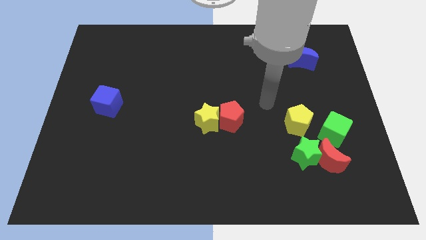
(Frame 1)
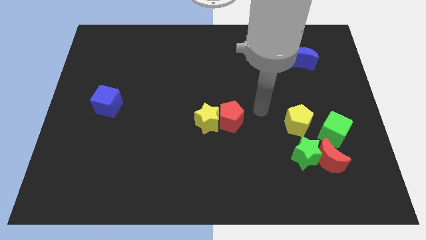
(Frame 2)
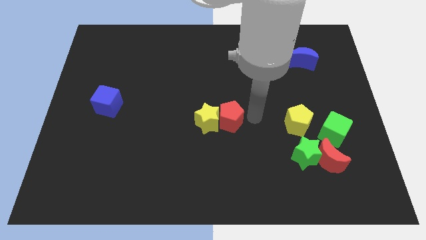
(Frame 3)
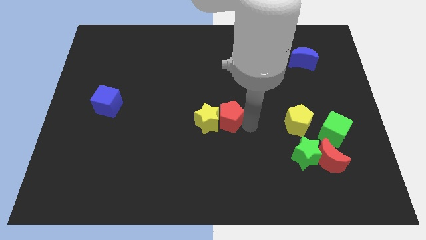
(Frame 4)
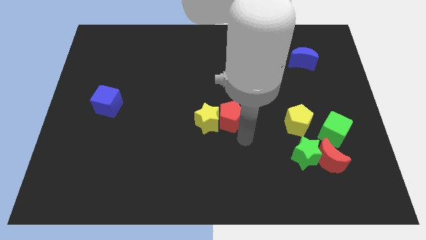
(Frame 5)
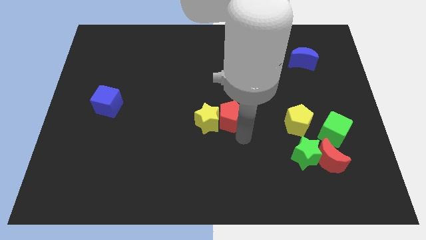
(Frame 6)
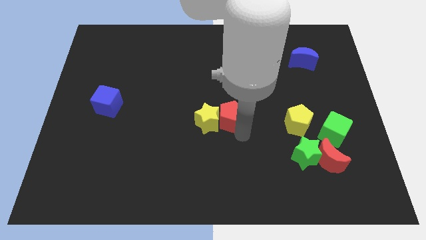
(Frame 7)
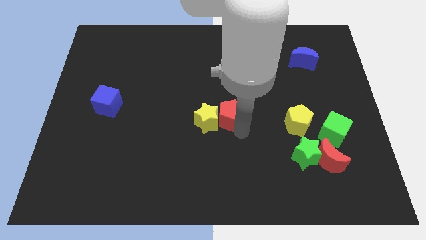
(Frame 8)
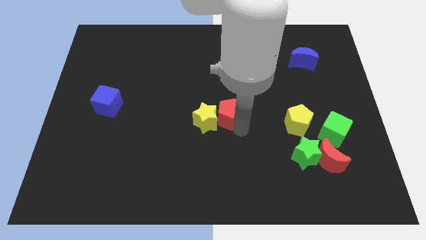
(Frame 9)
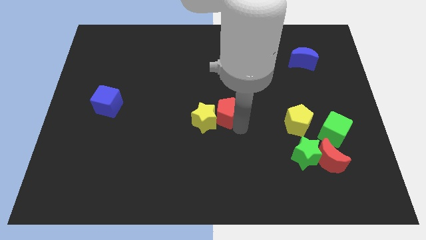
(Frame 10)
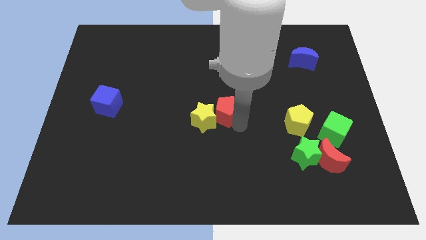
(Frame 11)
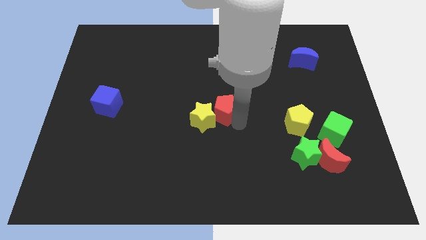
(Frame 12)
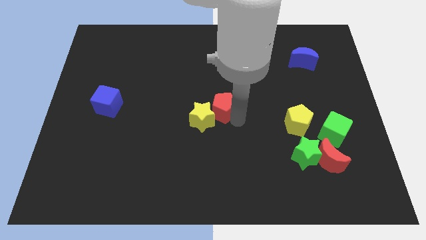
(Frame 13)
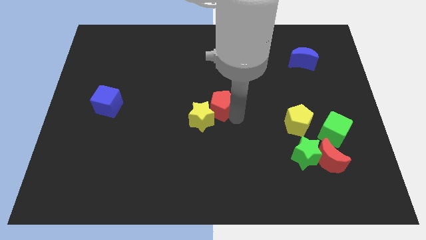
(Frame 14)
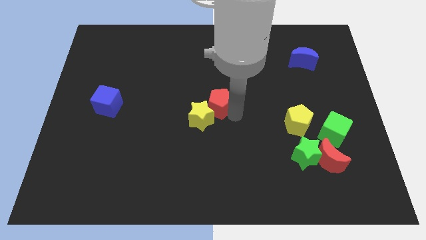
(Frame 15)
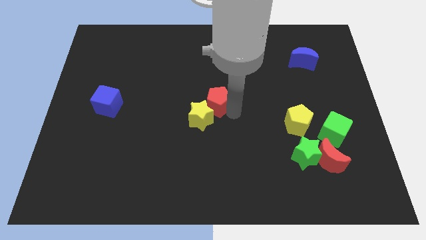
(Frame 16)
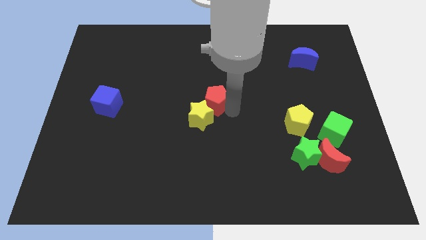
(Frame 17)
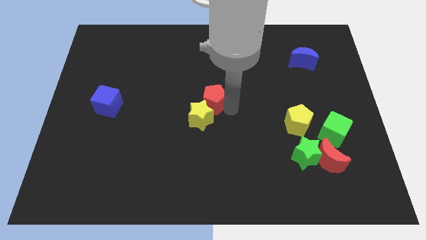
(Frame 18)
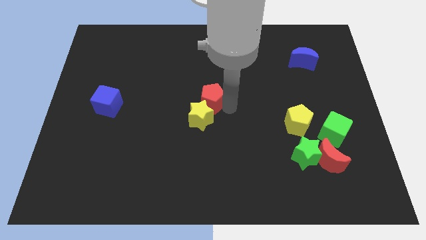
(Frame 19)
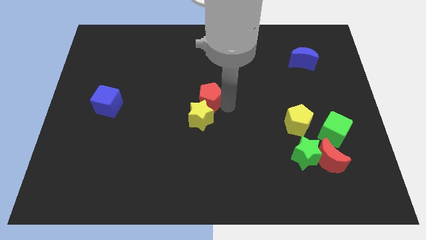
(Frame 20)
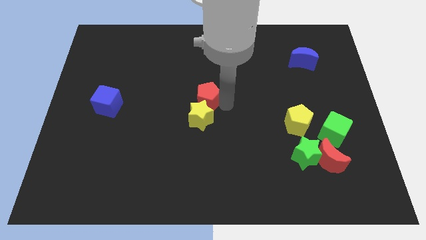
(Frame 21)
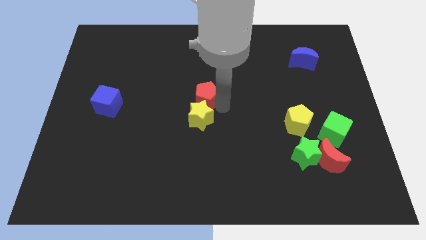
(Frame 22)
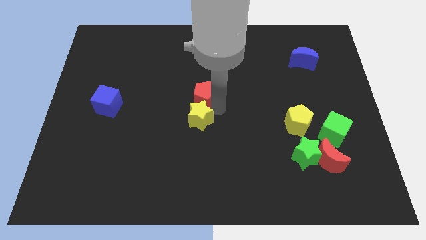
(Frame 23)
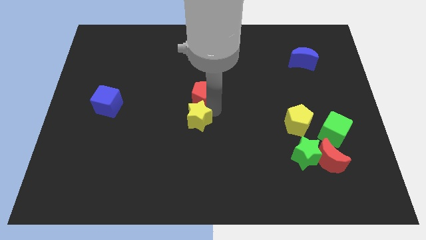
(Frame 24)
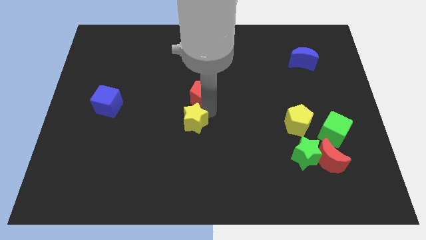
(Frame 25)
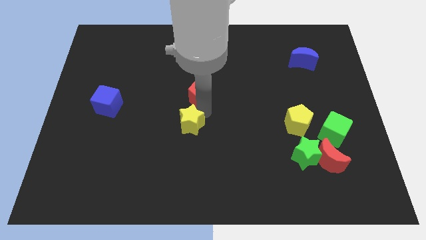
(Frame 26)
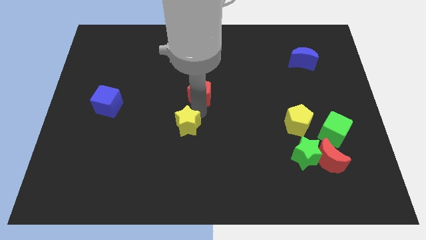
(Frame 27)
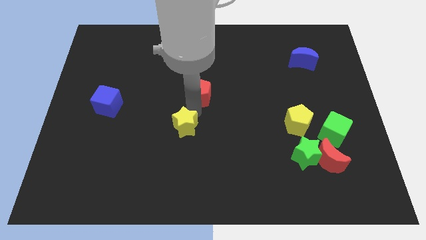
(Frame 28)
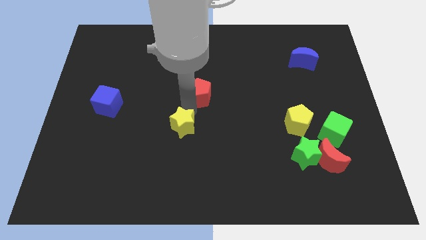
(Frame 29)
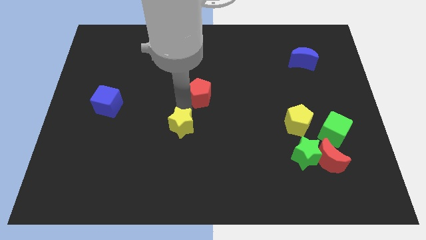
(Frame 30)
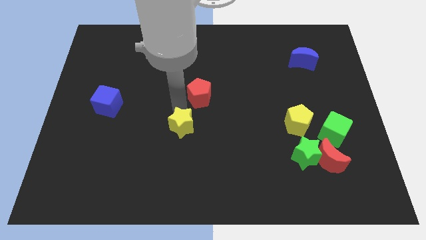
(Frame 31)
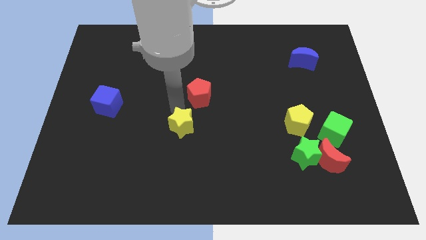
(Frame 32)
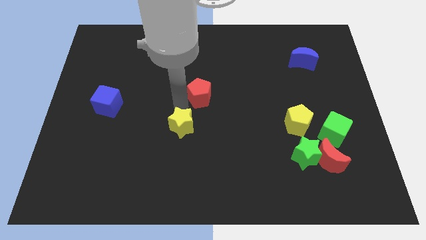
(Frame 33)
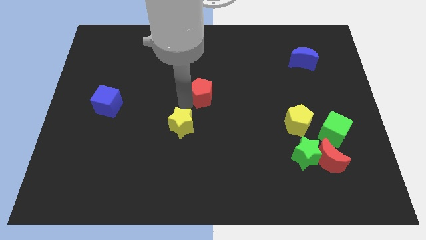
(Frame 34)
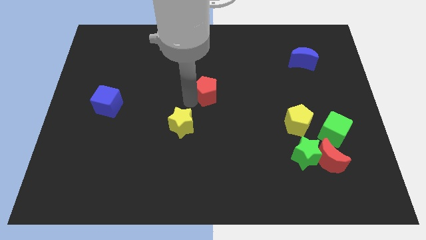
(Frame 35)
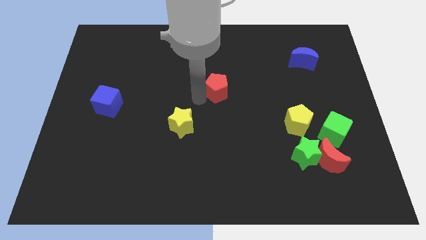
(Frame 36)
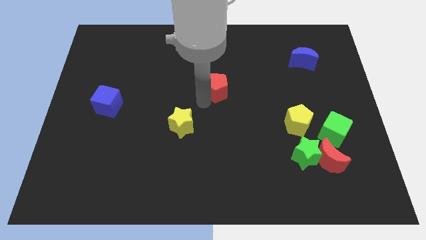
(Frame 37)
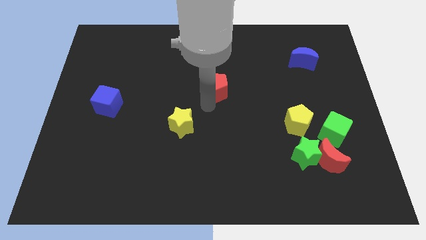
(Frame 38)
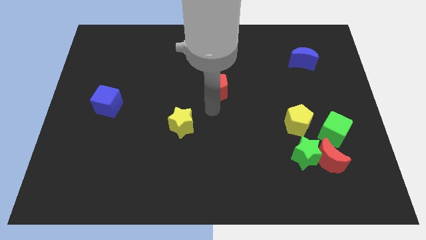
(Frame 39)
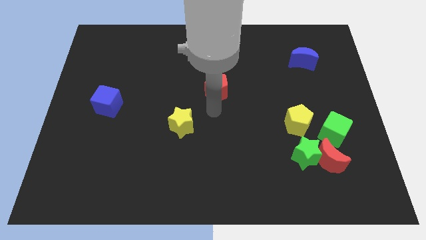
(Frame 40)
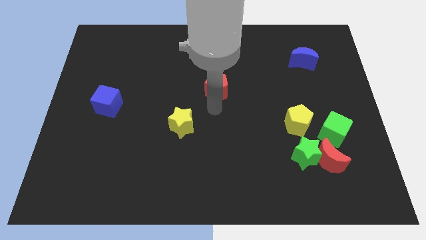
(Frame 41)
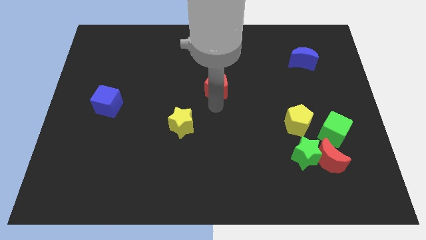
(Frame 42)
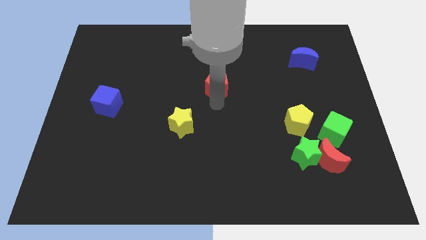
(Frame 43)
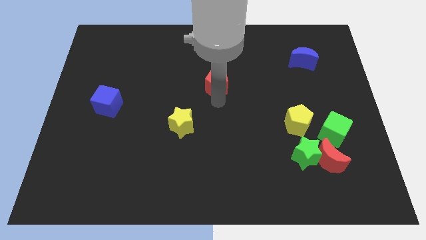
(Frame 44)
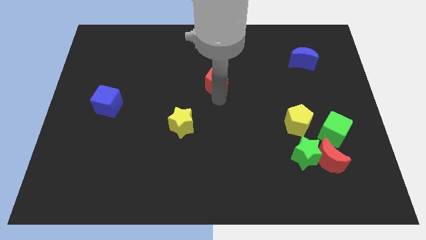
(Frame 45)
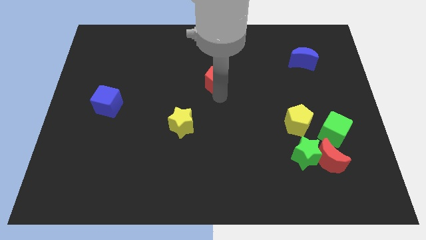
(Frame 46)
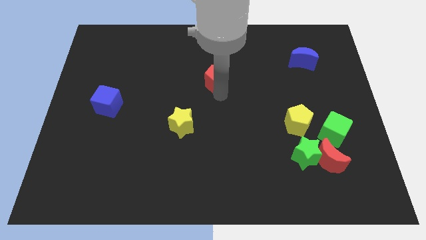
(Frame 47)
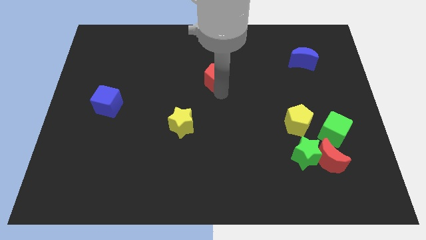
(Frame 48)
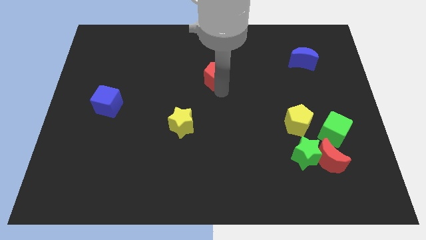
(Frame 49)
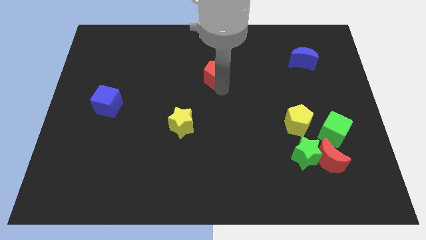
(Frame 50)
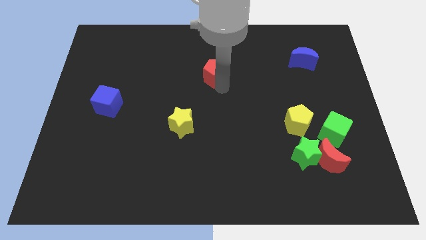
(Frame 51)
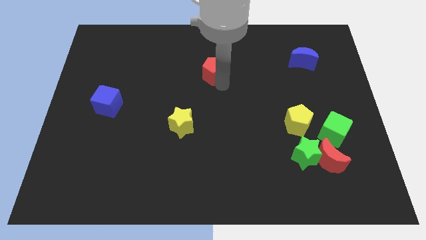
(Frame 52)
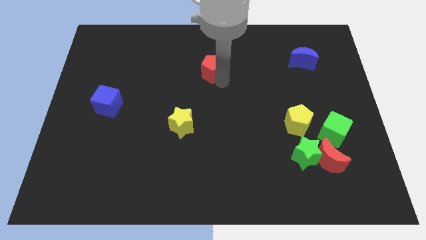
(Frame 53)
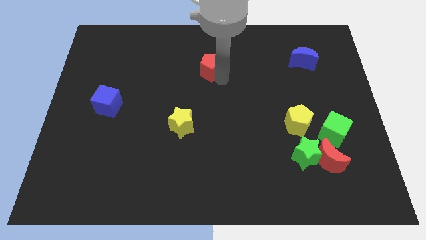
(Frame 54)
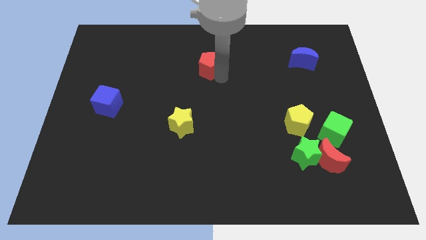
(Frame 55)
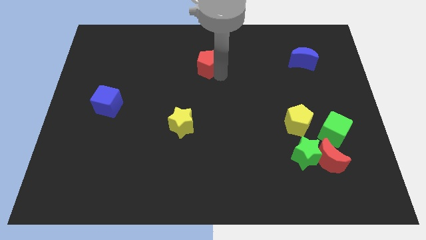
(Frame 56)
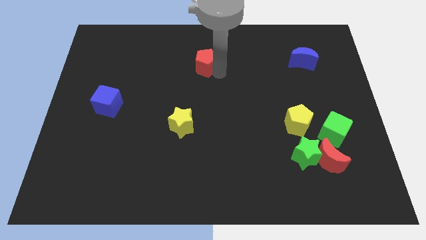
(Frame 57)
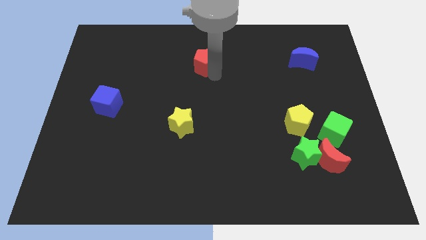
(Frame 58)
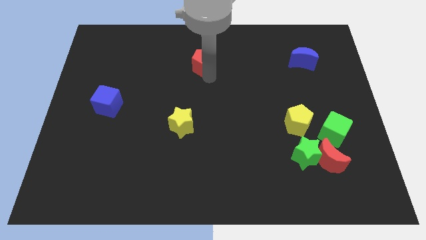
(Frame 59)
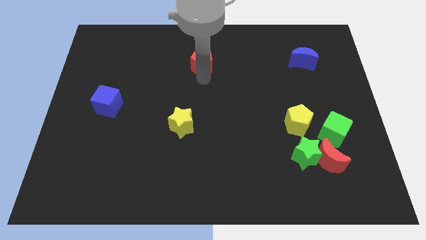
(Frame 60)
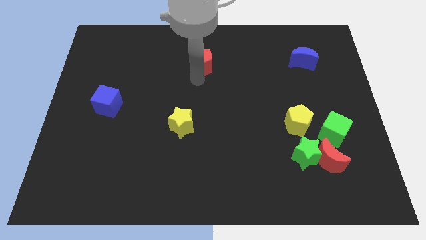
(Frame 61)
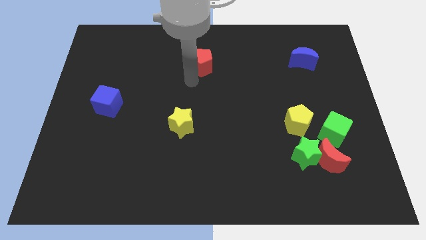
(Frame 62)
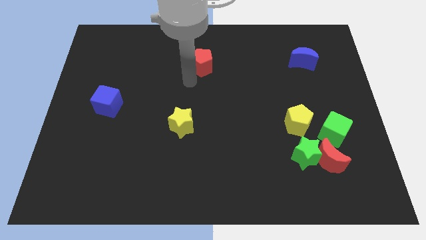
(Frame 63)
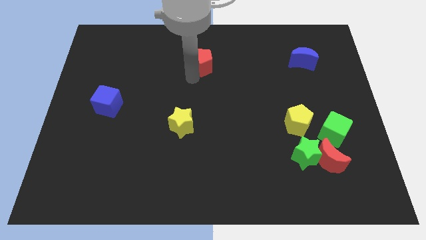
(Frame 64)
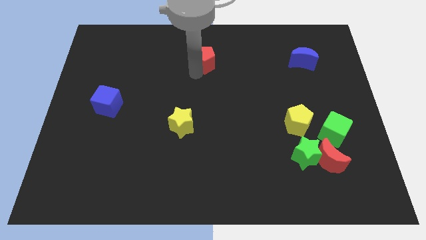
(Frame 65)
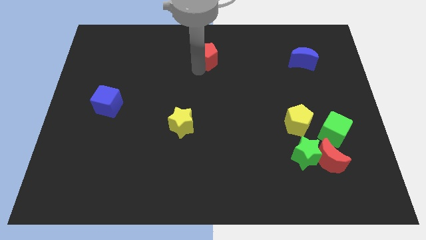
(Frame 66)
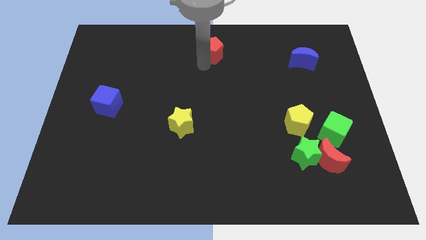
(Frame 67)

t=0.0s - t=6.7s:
push the red pentagon to the top

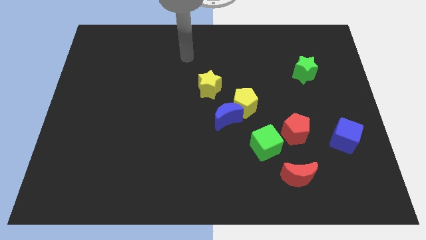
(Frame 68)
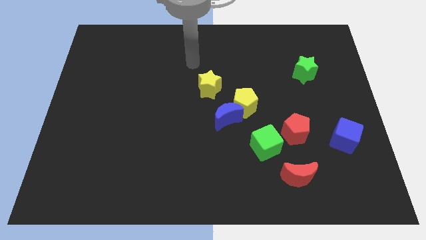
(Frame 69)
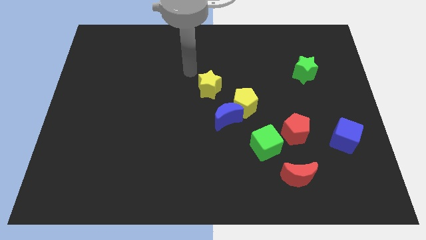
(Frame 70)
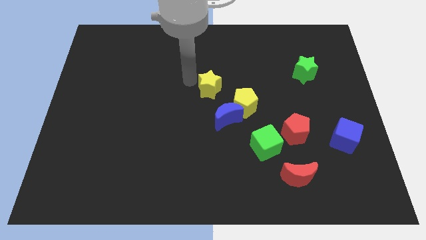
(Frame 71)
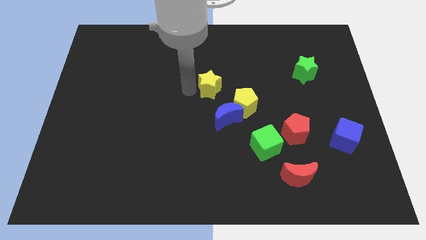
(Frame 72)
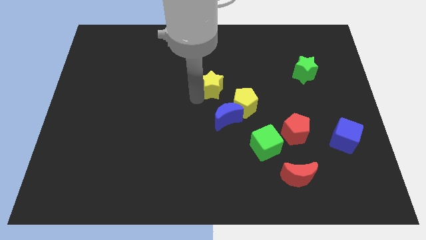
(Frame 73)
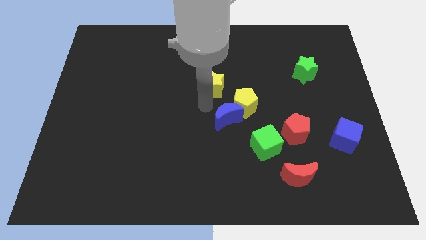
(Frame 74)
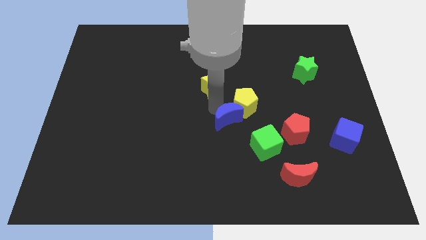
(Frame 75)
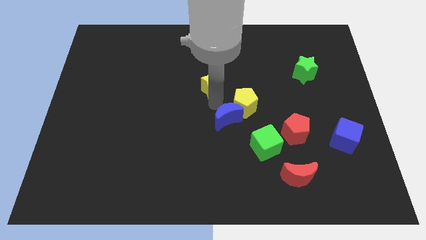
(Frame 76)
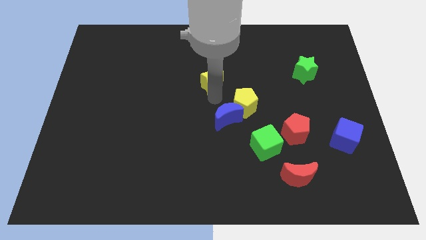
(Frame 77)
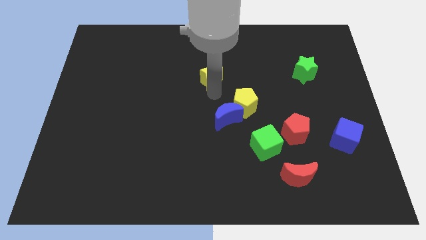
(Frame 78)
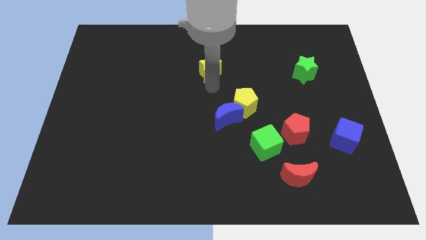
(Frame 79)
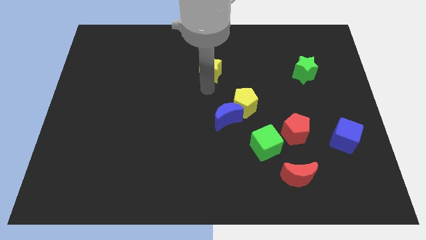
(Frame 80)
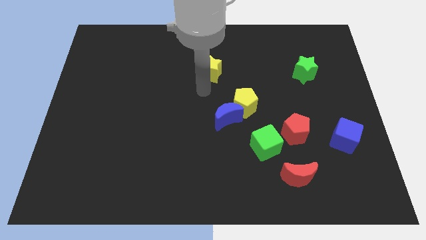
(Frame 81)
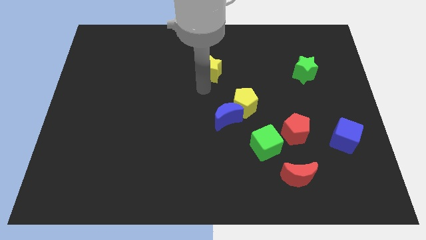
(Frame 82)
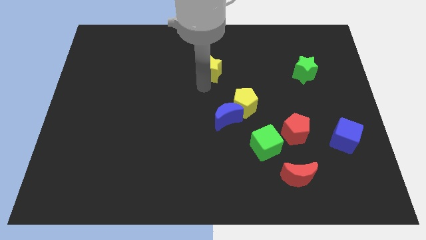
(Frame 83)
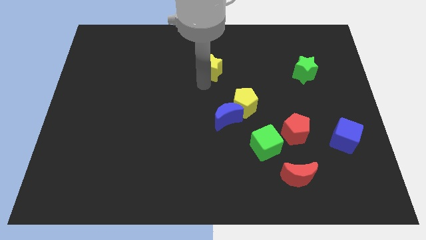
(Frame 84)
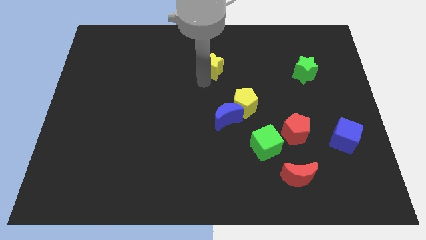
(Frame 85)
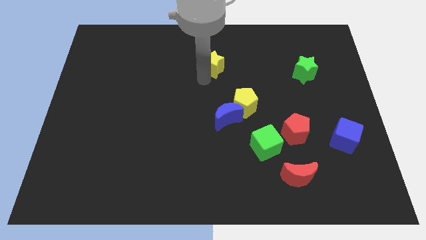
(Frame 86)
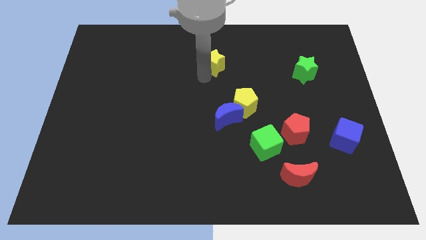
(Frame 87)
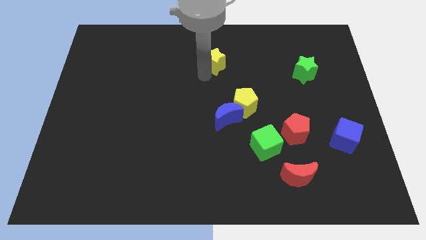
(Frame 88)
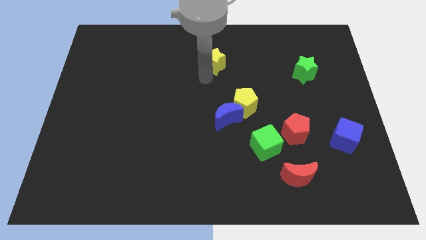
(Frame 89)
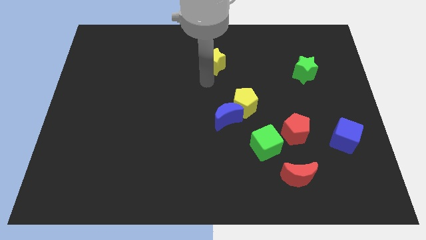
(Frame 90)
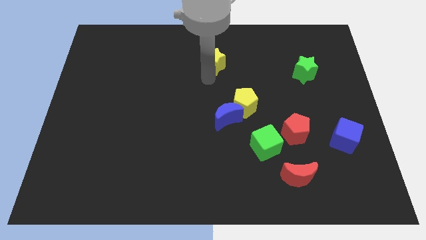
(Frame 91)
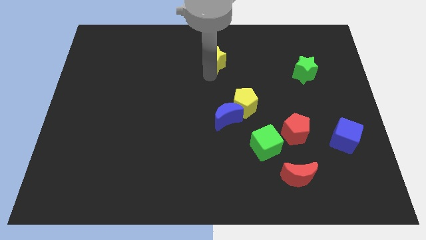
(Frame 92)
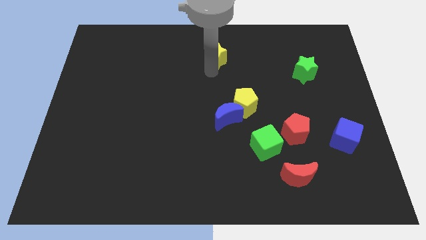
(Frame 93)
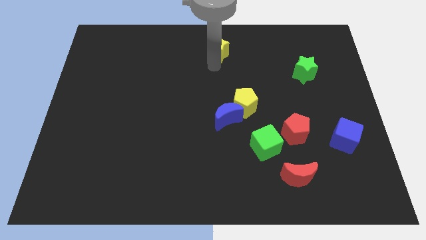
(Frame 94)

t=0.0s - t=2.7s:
put the yellow star to the top side
